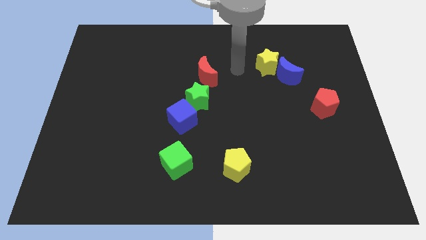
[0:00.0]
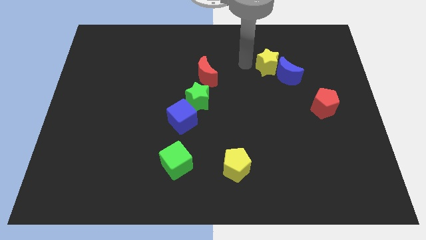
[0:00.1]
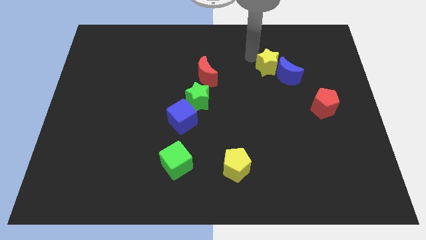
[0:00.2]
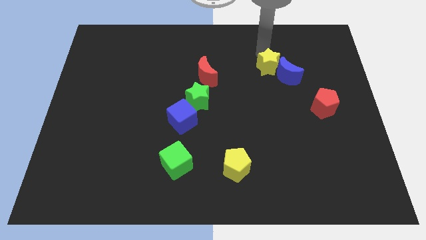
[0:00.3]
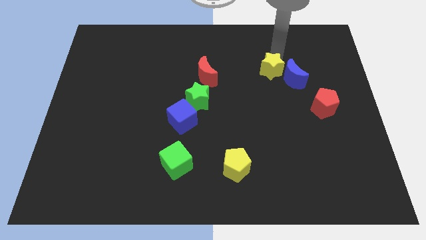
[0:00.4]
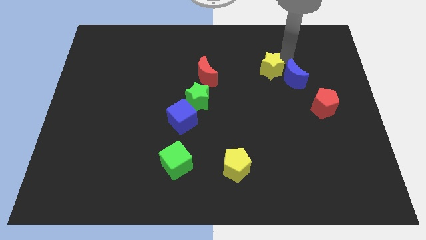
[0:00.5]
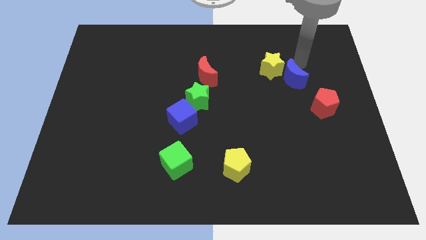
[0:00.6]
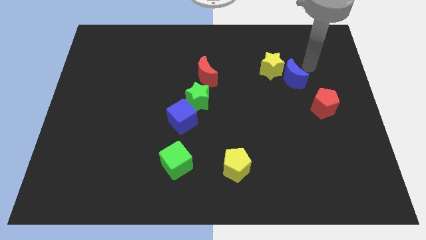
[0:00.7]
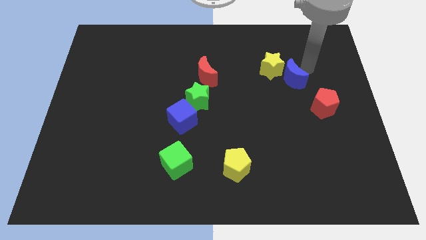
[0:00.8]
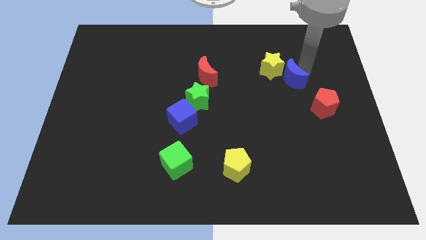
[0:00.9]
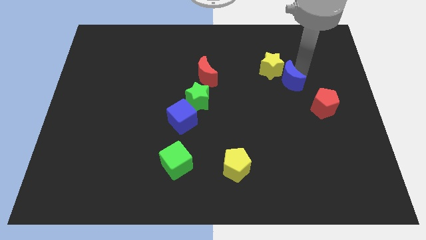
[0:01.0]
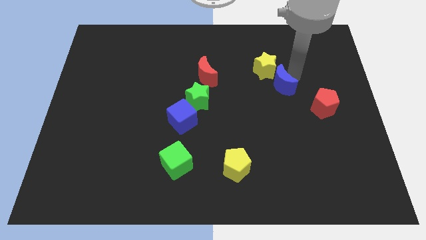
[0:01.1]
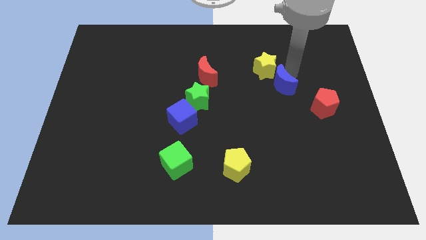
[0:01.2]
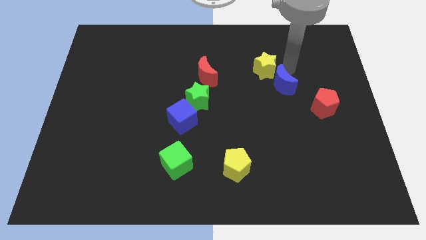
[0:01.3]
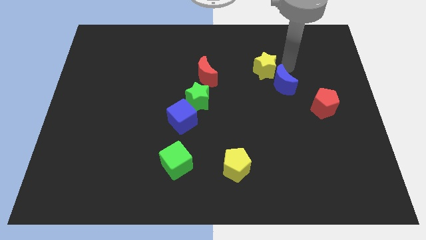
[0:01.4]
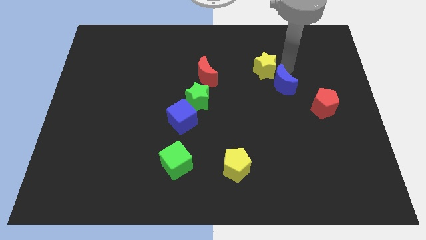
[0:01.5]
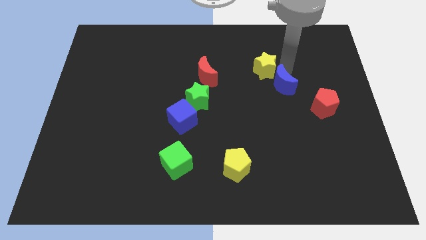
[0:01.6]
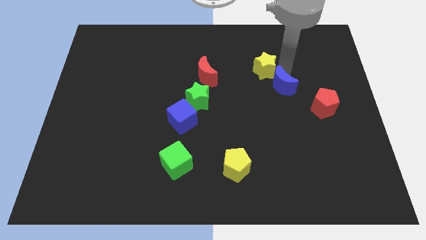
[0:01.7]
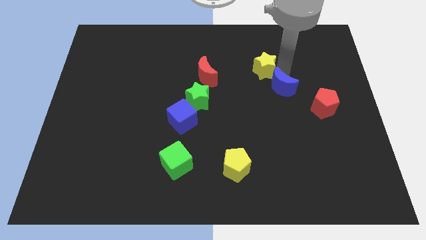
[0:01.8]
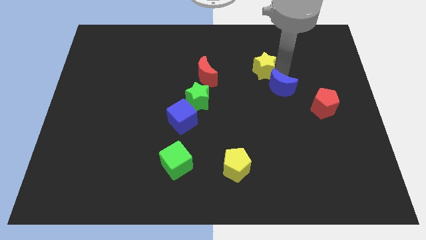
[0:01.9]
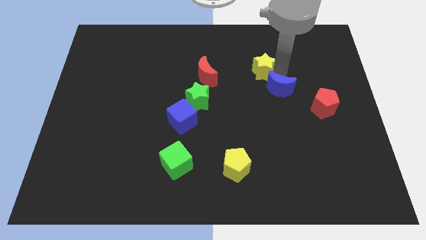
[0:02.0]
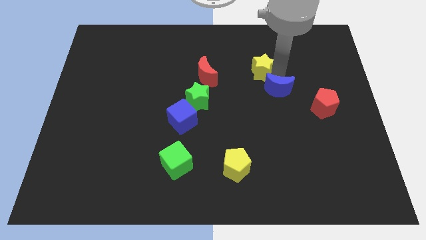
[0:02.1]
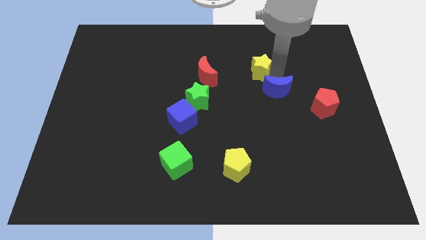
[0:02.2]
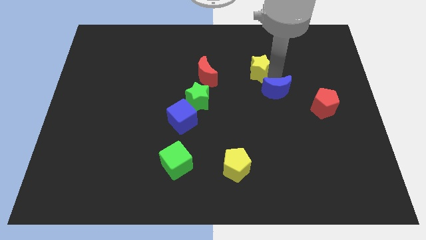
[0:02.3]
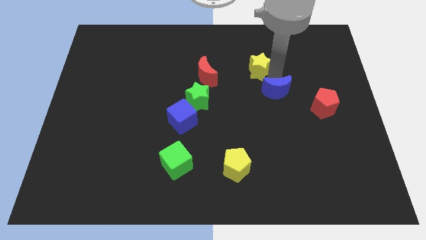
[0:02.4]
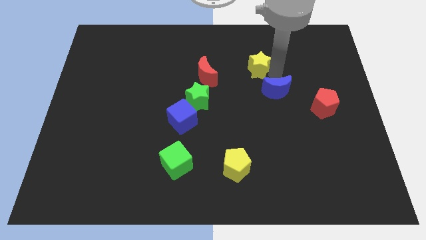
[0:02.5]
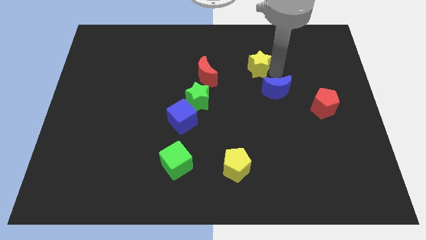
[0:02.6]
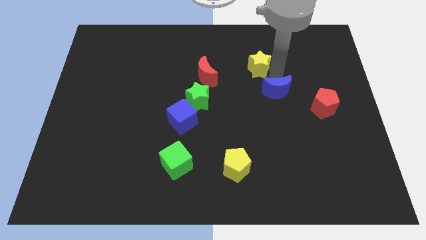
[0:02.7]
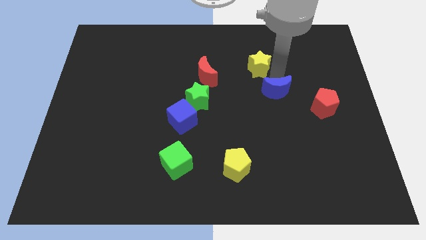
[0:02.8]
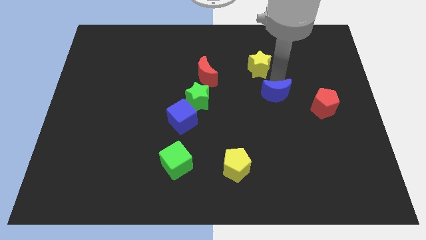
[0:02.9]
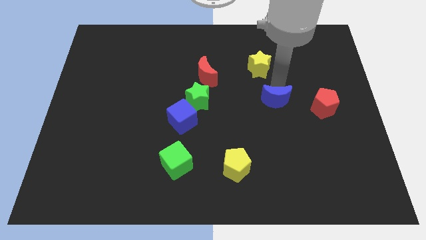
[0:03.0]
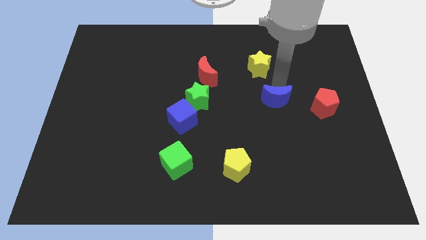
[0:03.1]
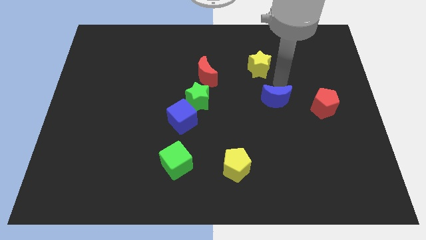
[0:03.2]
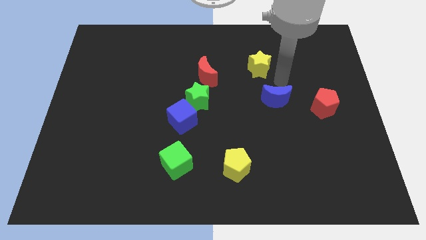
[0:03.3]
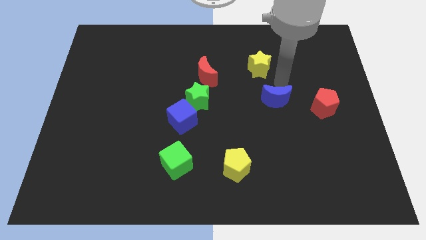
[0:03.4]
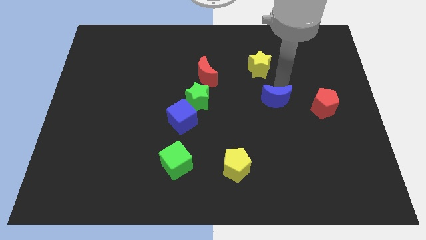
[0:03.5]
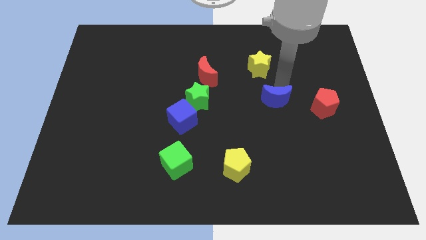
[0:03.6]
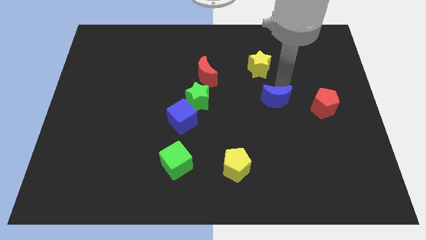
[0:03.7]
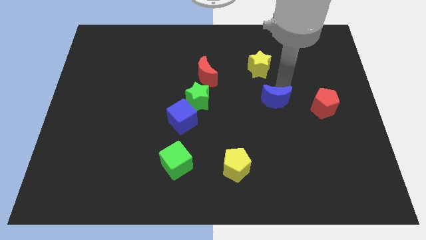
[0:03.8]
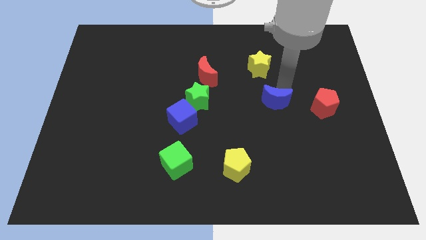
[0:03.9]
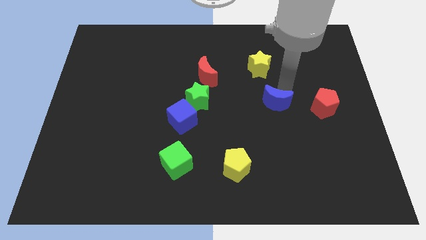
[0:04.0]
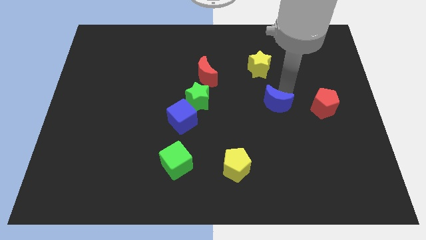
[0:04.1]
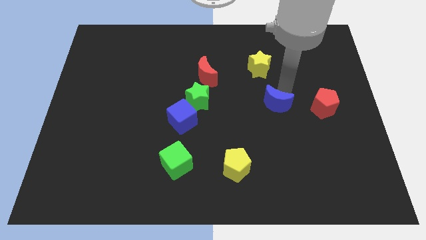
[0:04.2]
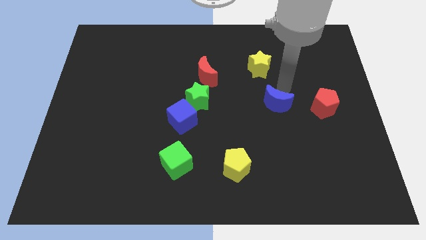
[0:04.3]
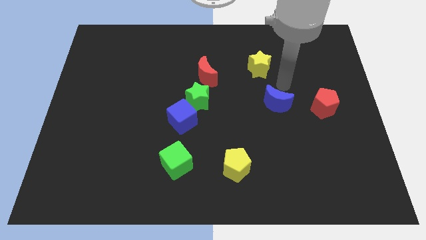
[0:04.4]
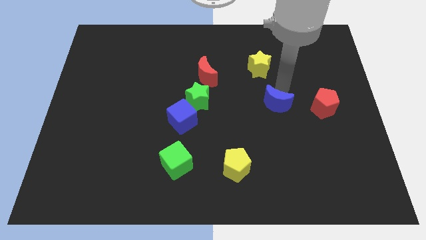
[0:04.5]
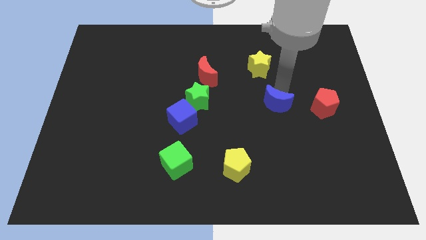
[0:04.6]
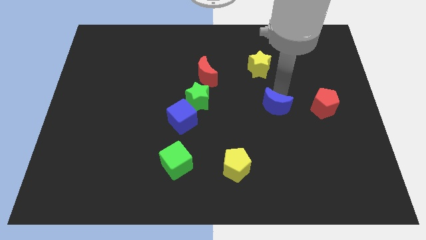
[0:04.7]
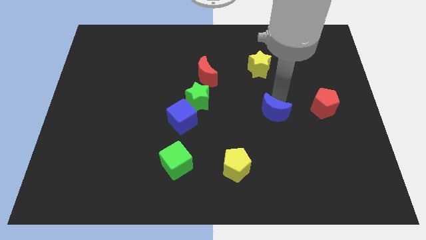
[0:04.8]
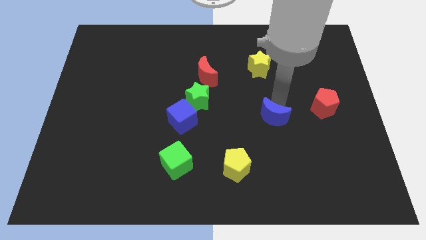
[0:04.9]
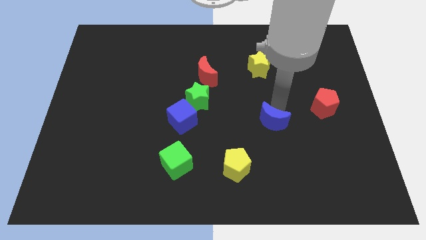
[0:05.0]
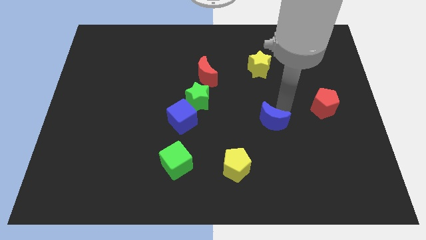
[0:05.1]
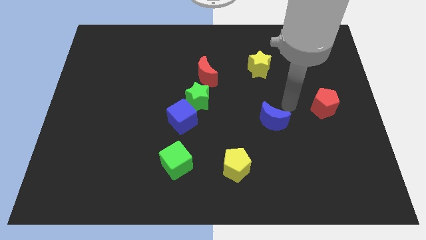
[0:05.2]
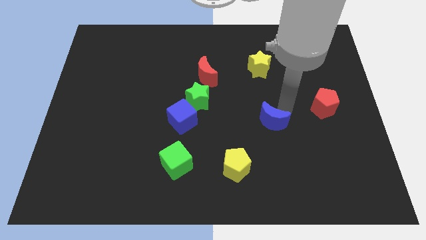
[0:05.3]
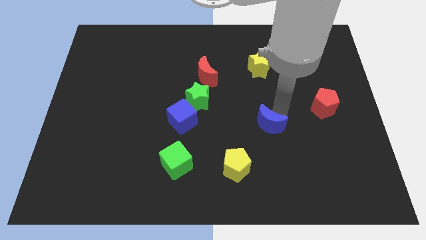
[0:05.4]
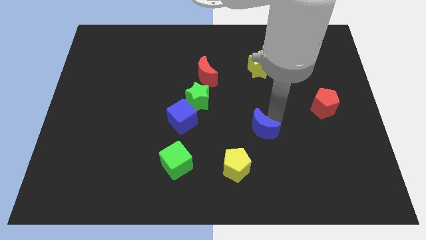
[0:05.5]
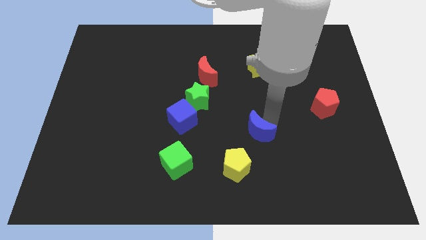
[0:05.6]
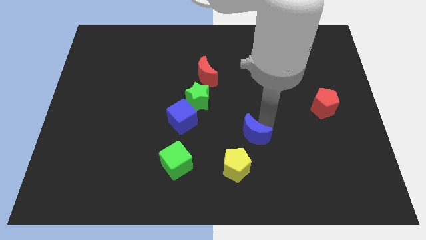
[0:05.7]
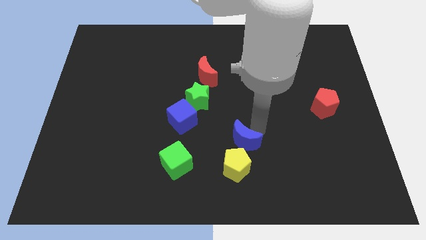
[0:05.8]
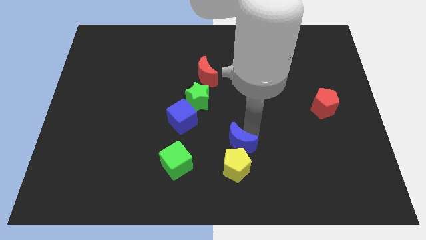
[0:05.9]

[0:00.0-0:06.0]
slide the blue moon close to the yellow pentagon

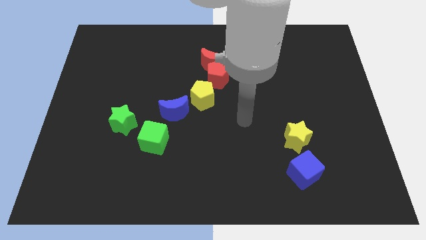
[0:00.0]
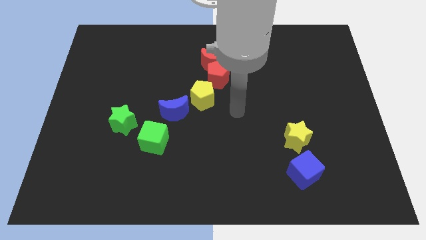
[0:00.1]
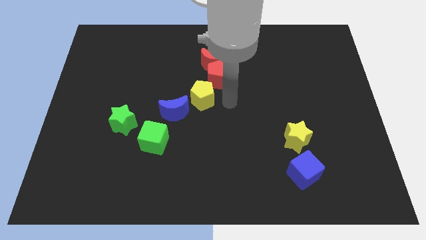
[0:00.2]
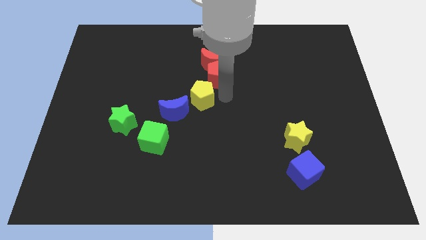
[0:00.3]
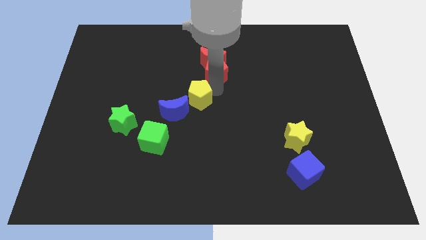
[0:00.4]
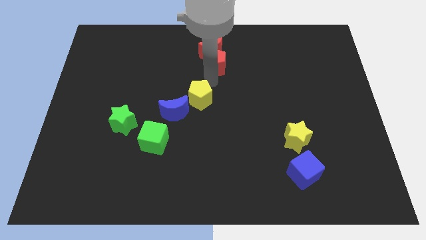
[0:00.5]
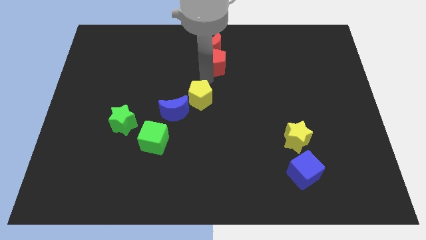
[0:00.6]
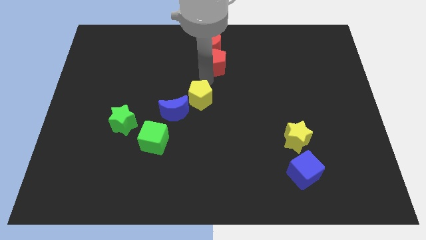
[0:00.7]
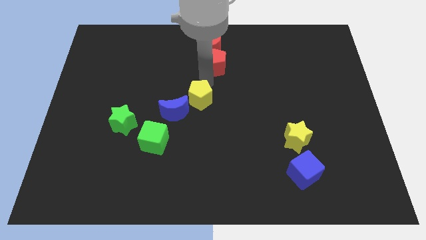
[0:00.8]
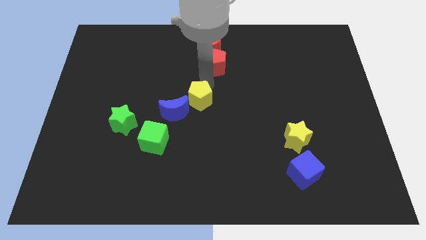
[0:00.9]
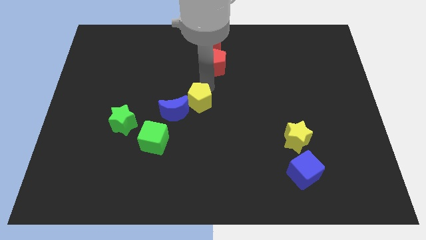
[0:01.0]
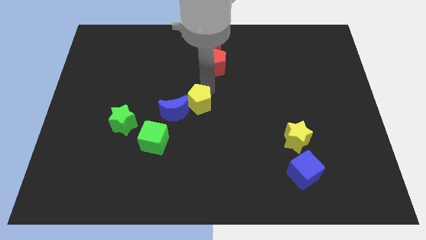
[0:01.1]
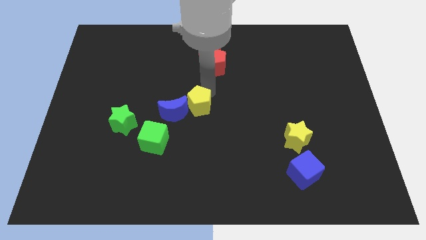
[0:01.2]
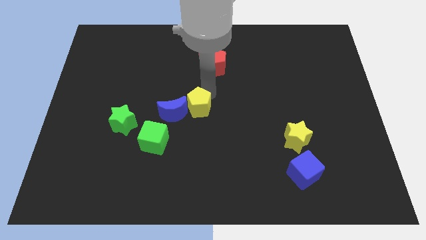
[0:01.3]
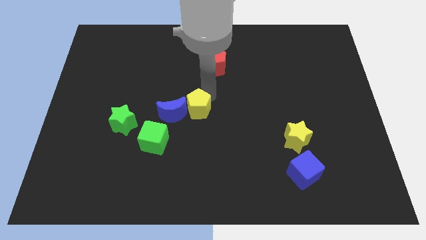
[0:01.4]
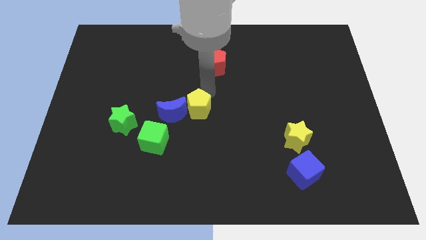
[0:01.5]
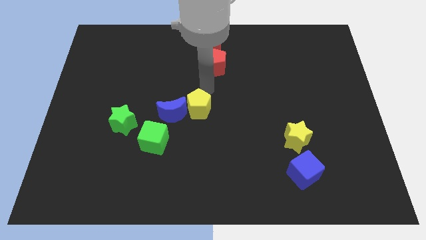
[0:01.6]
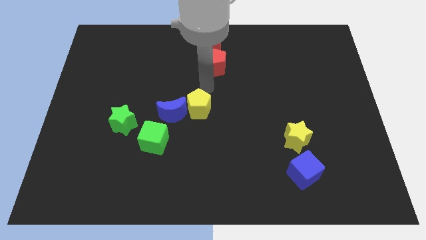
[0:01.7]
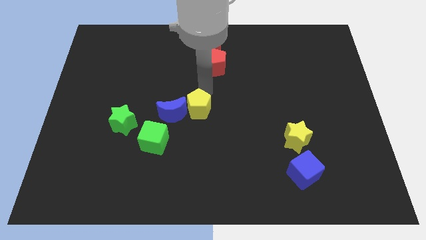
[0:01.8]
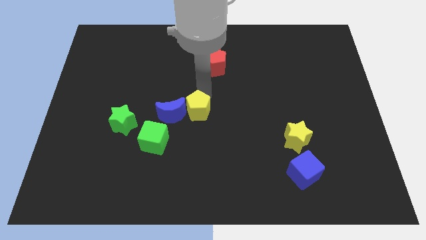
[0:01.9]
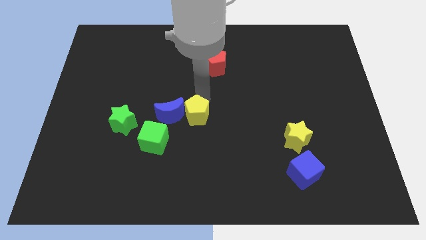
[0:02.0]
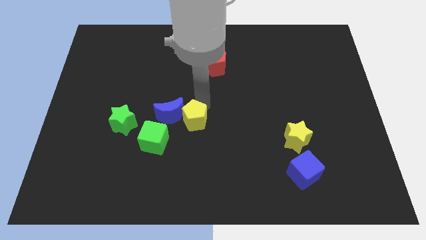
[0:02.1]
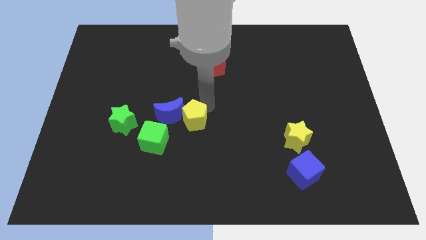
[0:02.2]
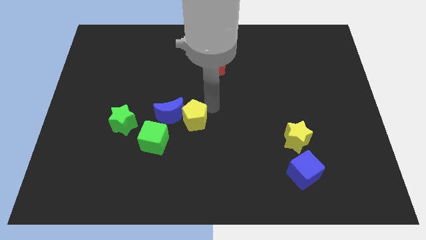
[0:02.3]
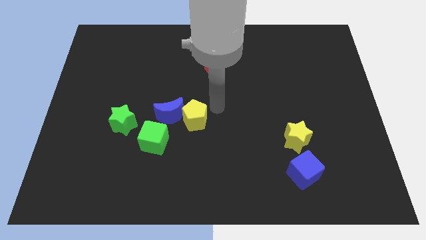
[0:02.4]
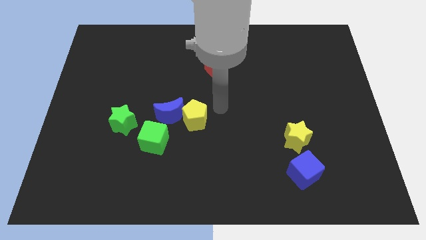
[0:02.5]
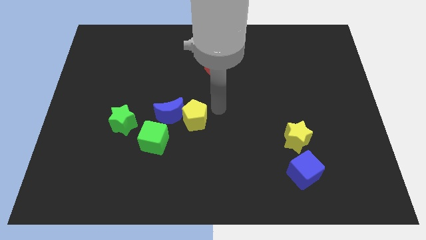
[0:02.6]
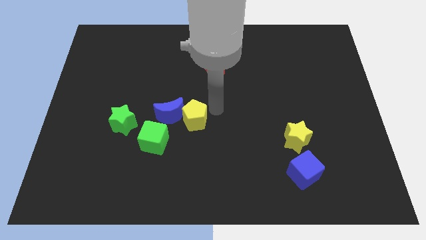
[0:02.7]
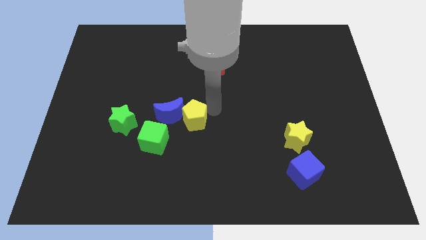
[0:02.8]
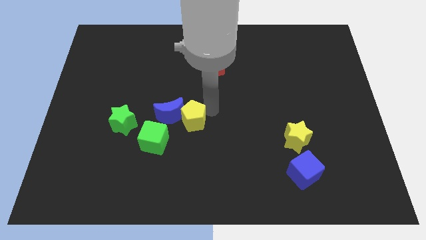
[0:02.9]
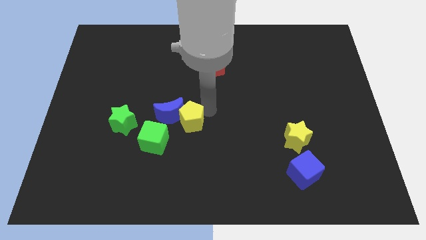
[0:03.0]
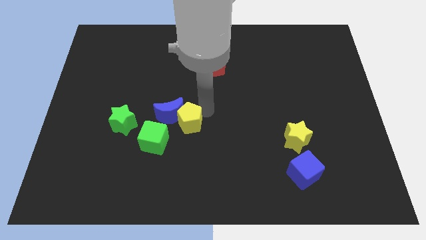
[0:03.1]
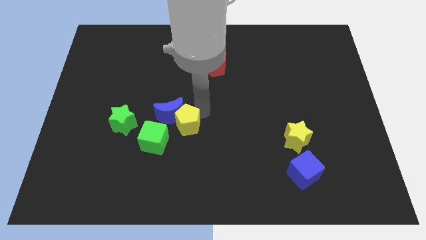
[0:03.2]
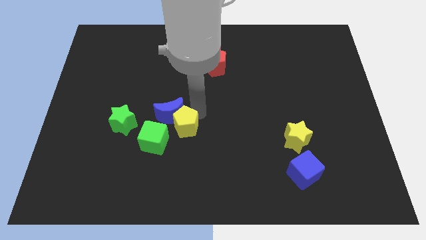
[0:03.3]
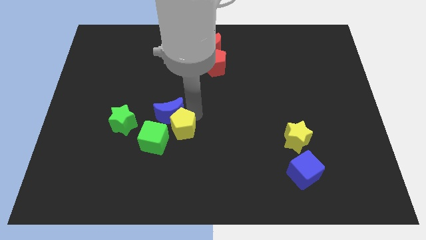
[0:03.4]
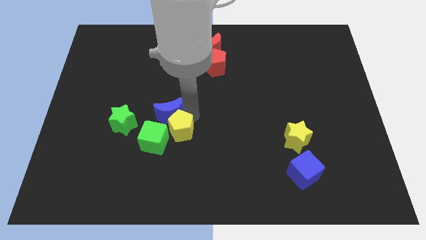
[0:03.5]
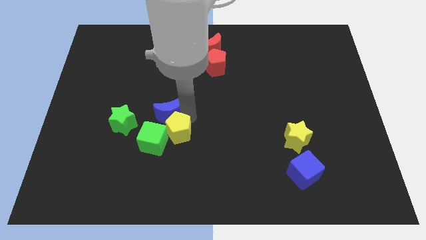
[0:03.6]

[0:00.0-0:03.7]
move the yellow pentagon to the green cube
